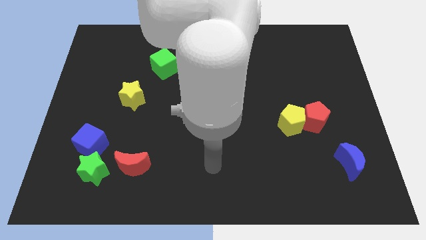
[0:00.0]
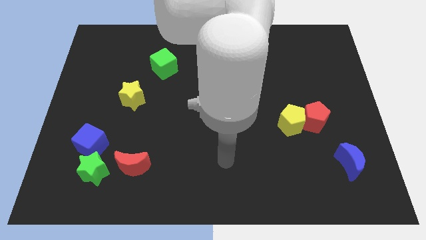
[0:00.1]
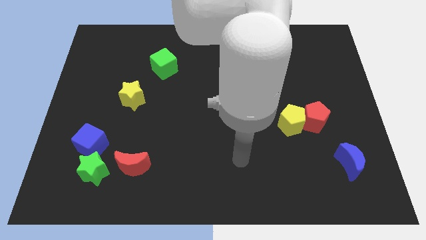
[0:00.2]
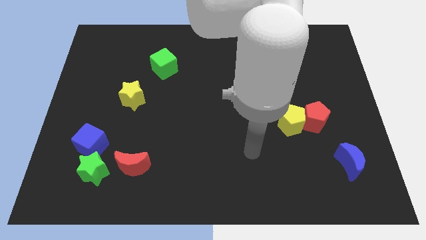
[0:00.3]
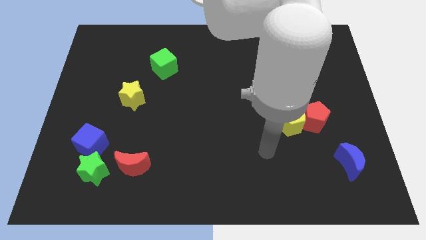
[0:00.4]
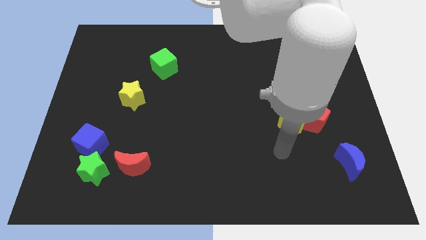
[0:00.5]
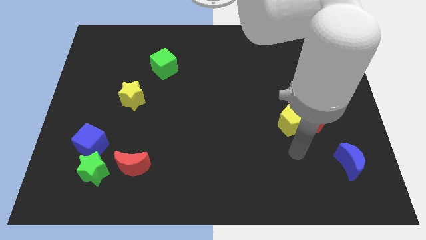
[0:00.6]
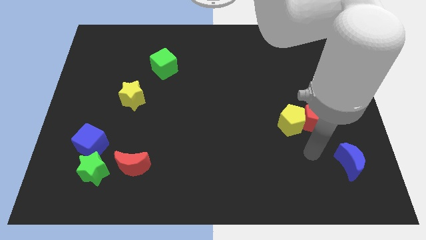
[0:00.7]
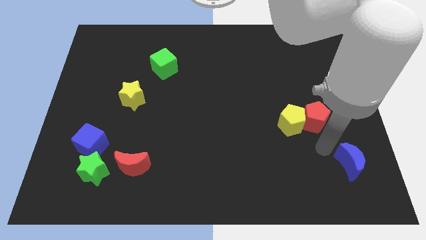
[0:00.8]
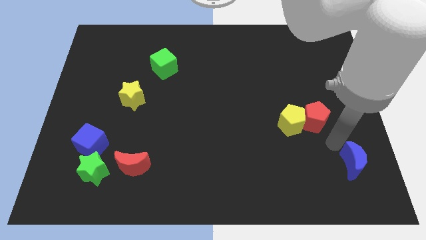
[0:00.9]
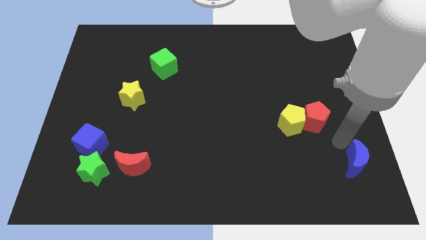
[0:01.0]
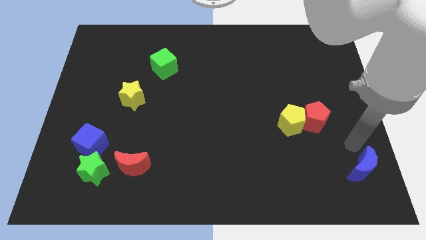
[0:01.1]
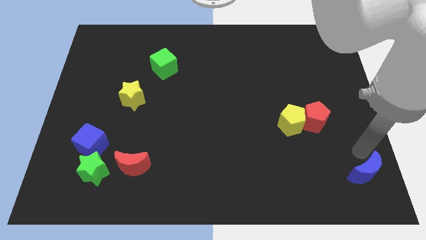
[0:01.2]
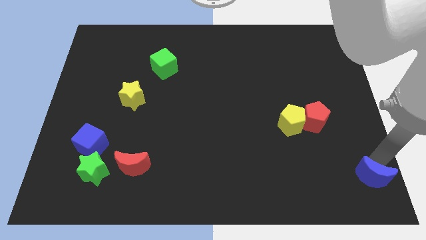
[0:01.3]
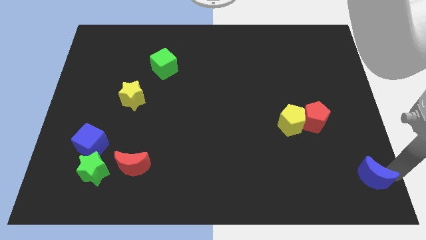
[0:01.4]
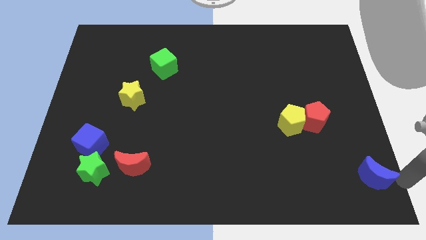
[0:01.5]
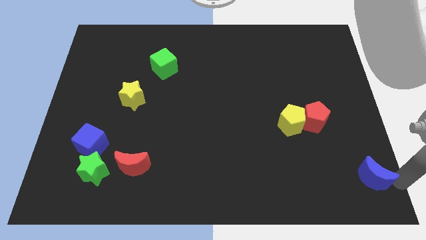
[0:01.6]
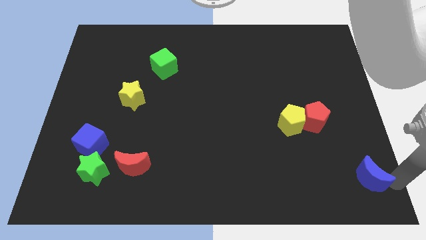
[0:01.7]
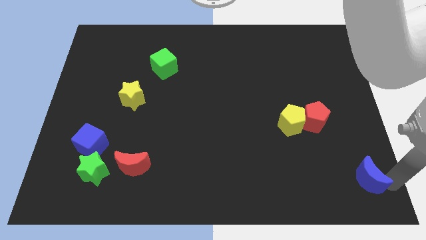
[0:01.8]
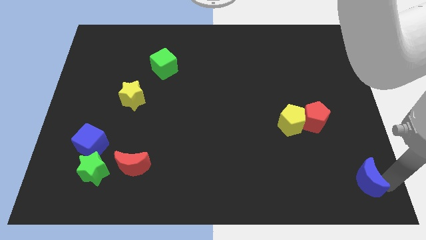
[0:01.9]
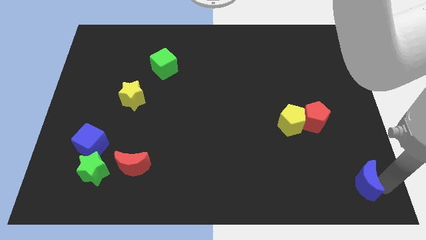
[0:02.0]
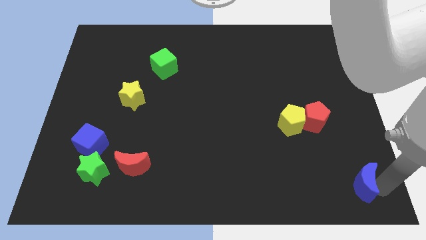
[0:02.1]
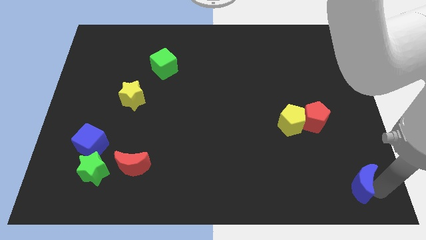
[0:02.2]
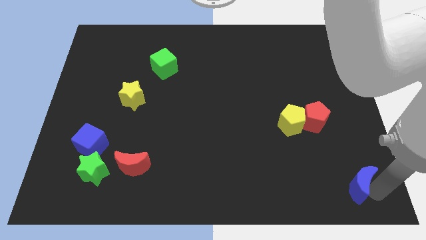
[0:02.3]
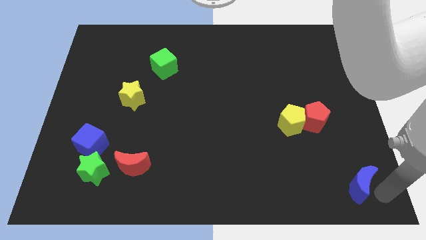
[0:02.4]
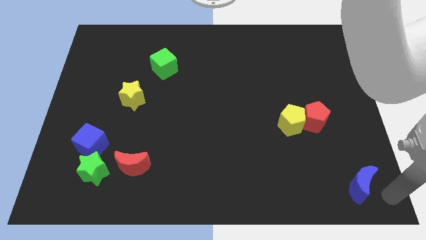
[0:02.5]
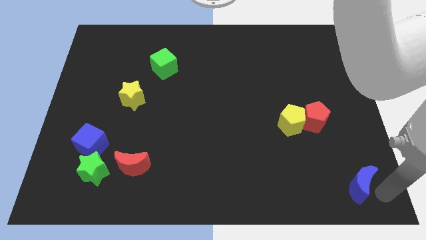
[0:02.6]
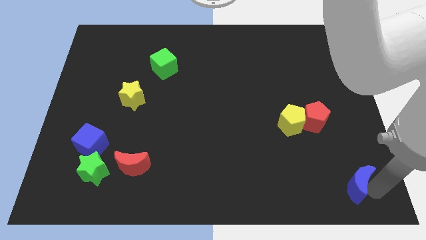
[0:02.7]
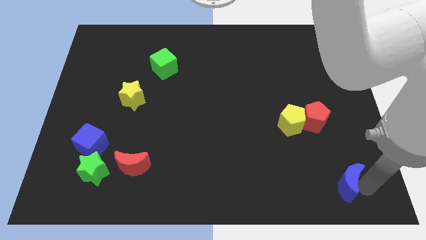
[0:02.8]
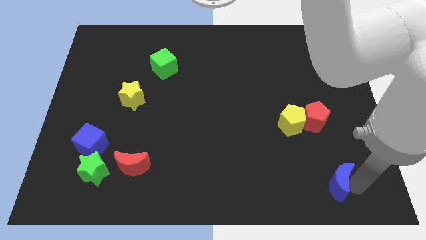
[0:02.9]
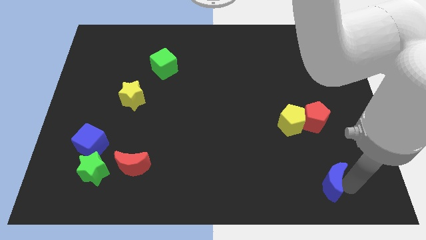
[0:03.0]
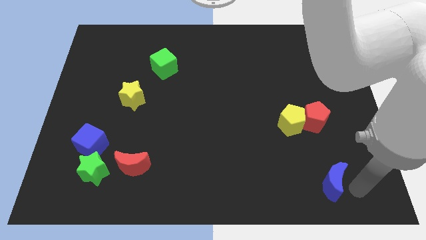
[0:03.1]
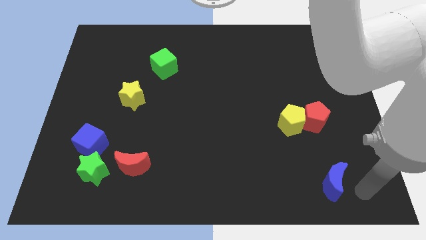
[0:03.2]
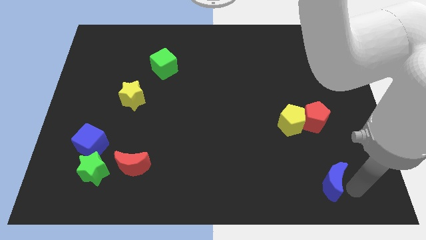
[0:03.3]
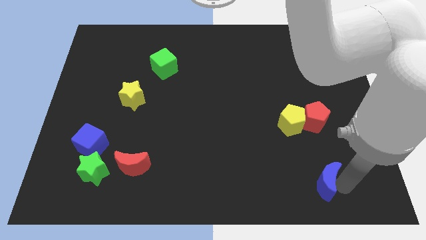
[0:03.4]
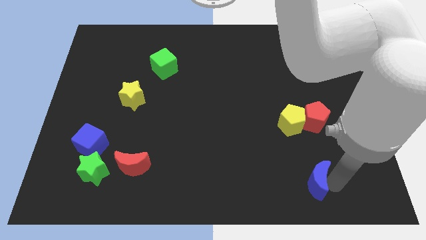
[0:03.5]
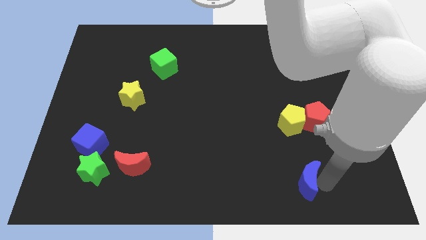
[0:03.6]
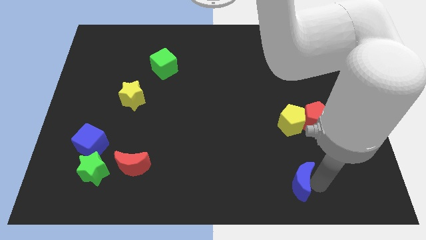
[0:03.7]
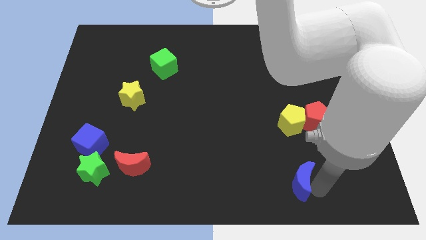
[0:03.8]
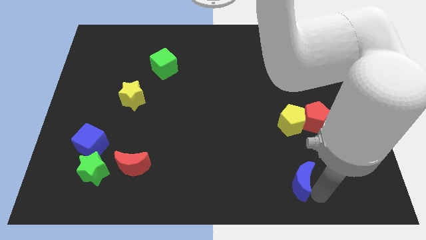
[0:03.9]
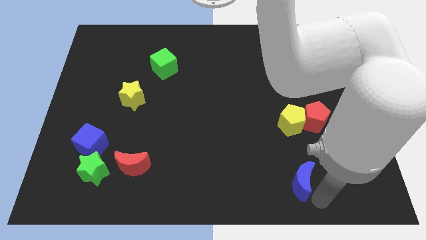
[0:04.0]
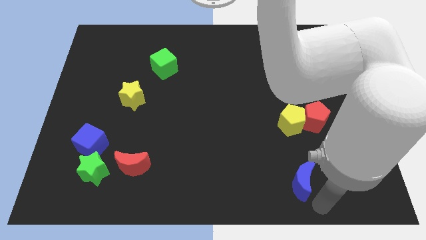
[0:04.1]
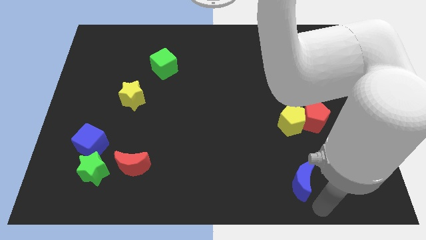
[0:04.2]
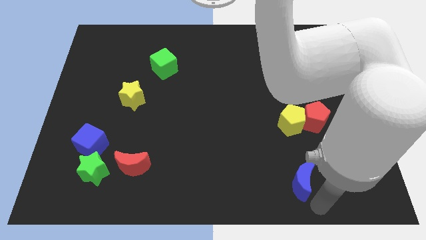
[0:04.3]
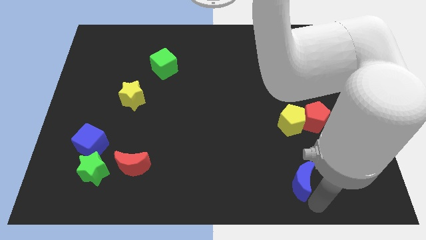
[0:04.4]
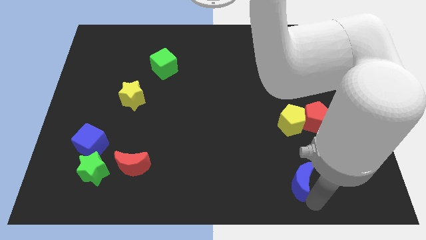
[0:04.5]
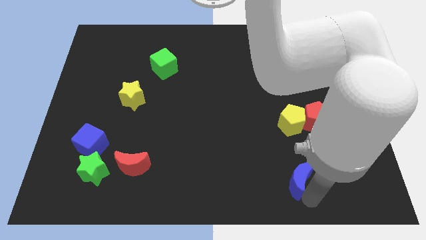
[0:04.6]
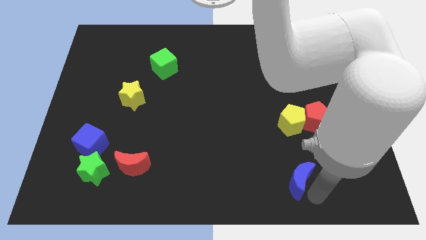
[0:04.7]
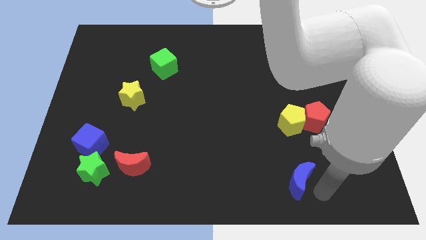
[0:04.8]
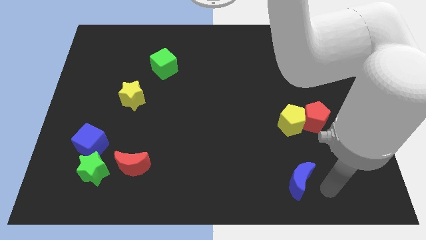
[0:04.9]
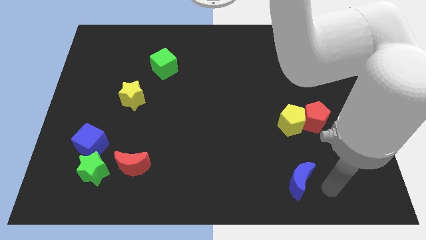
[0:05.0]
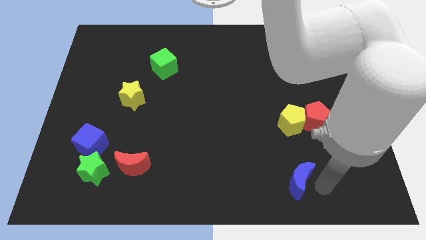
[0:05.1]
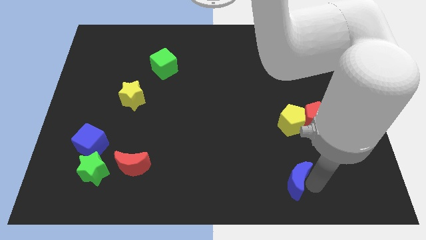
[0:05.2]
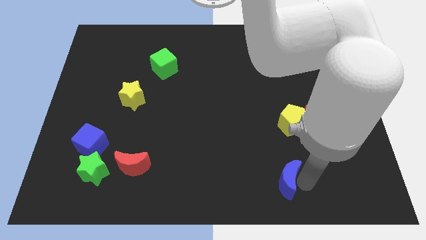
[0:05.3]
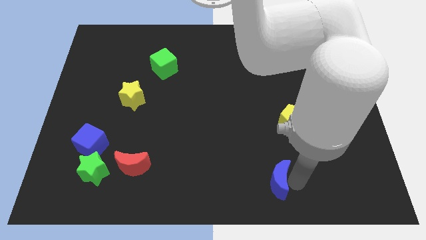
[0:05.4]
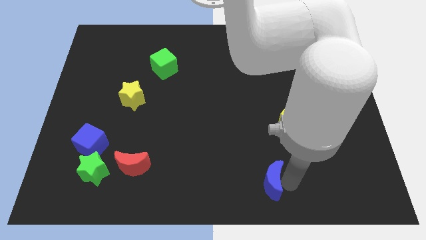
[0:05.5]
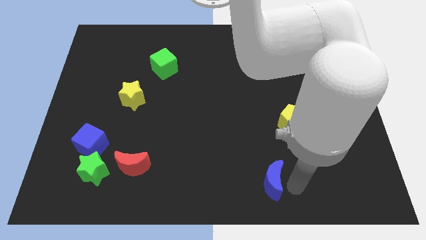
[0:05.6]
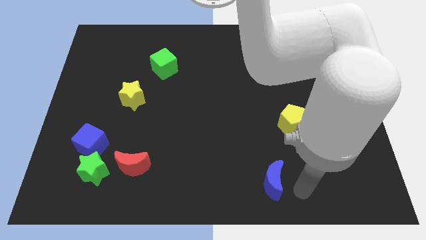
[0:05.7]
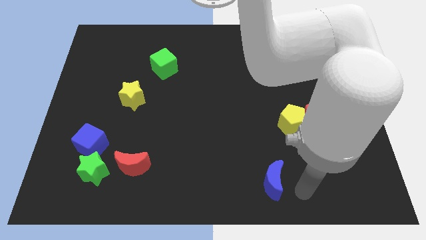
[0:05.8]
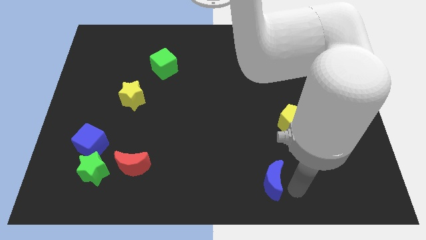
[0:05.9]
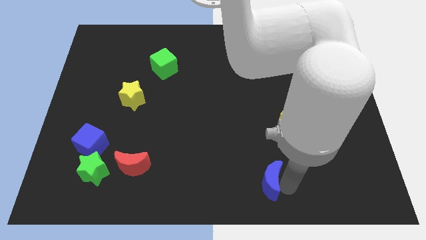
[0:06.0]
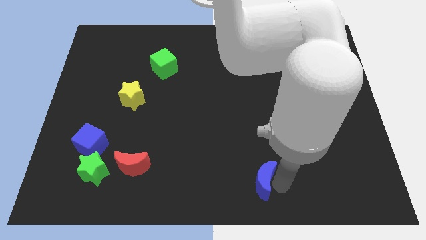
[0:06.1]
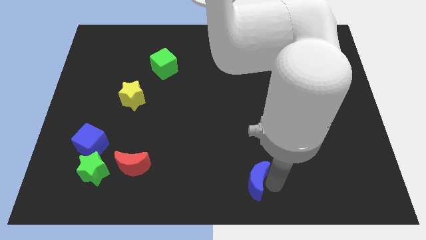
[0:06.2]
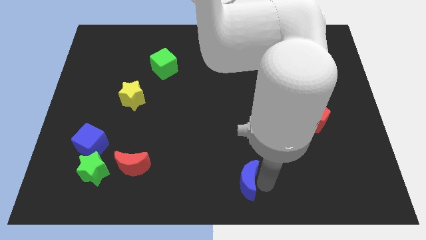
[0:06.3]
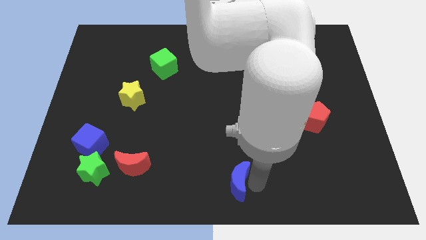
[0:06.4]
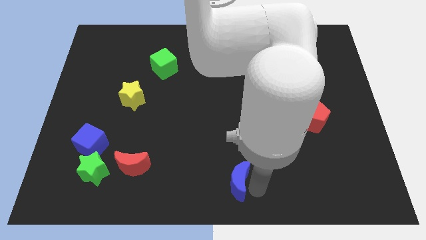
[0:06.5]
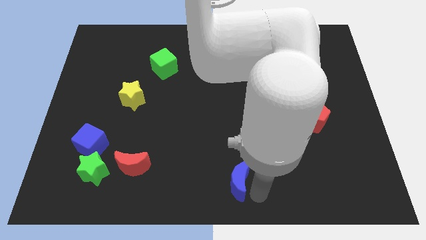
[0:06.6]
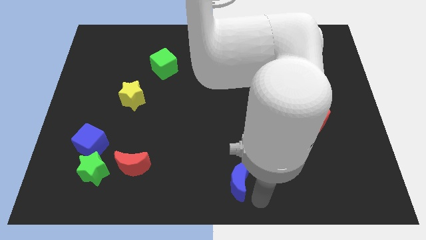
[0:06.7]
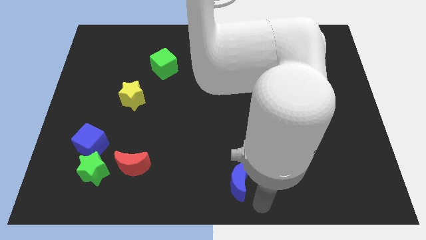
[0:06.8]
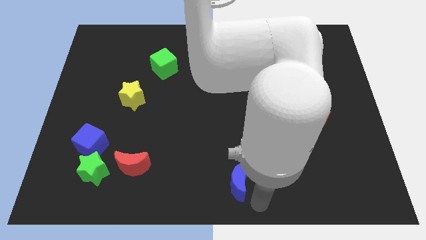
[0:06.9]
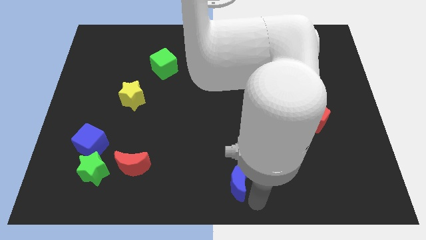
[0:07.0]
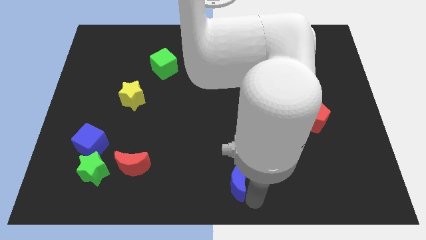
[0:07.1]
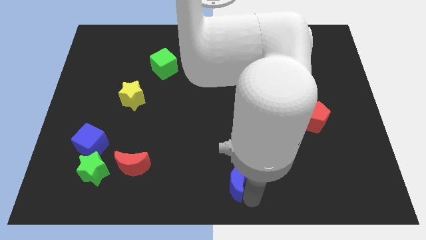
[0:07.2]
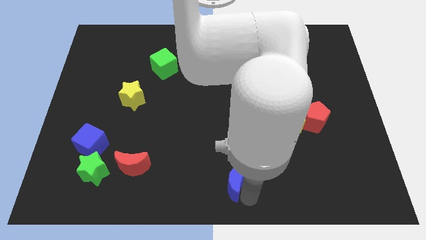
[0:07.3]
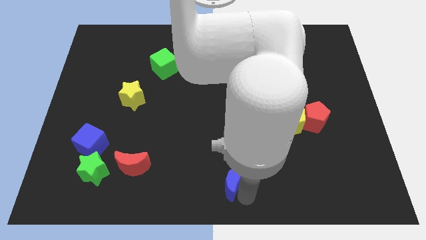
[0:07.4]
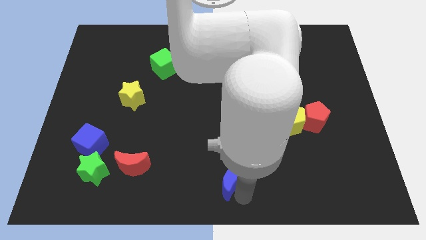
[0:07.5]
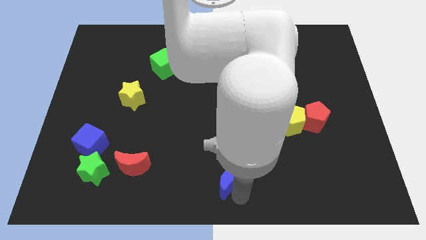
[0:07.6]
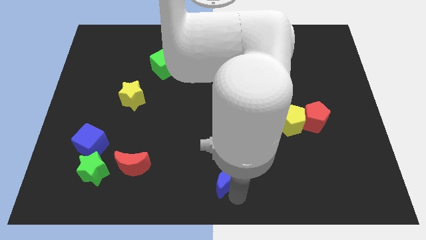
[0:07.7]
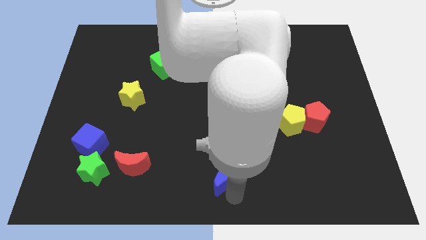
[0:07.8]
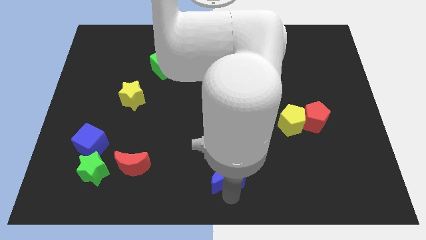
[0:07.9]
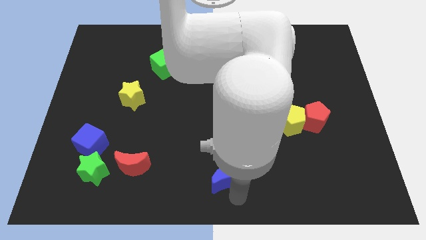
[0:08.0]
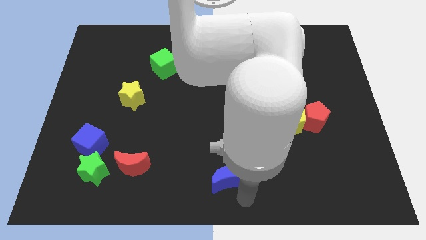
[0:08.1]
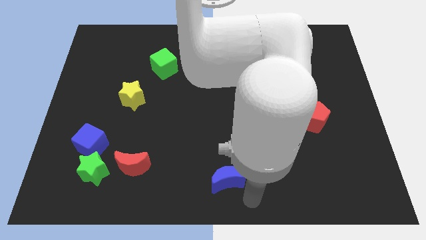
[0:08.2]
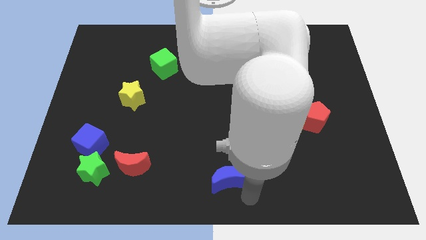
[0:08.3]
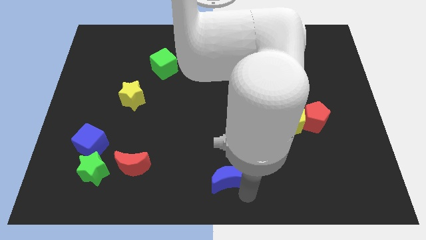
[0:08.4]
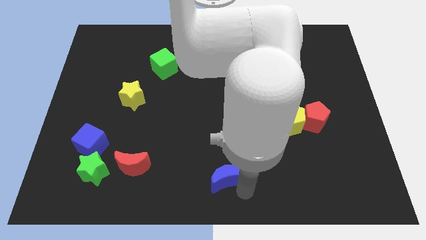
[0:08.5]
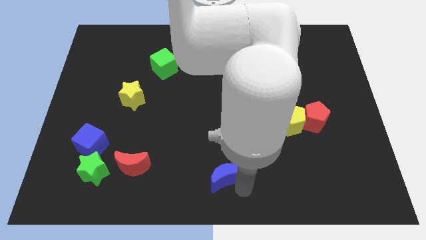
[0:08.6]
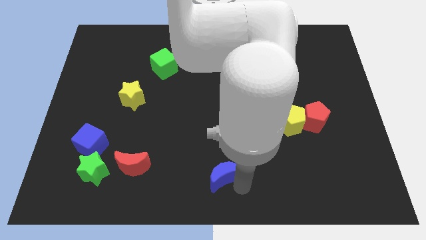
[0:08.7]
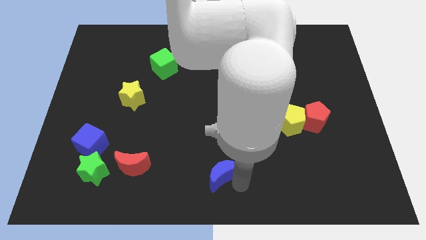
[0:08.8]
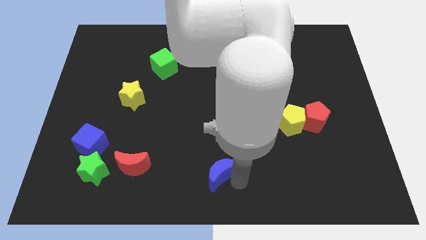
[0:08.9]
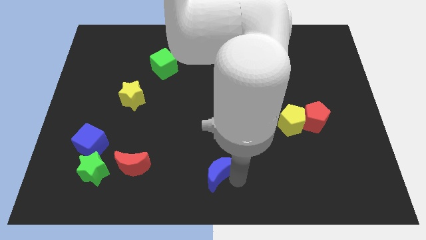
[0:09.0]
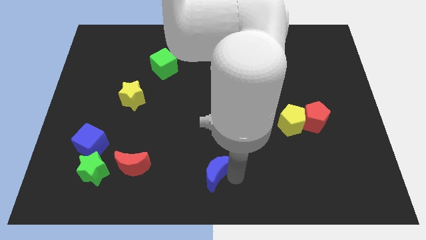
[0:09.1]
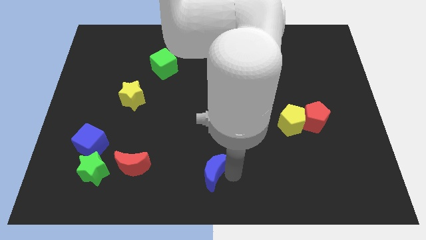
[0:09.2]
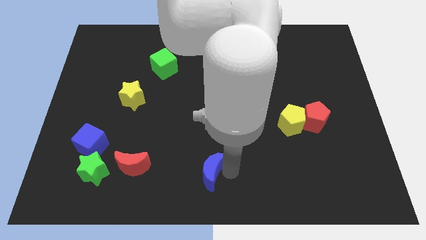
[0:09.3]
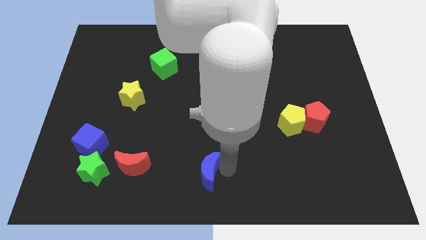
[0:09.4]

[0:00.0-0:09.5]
move the blue moon to the right side of the red moon
